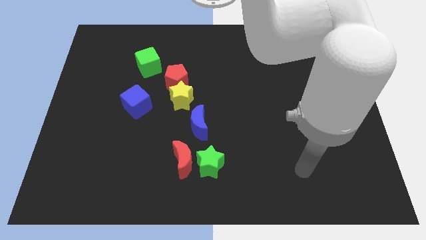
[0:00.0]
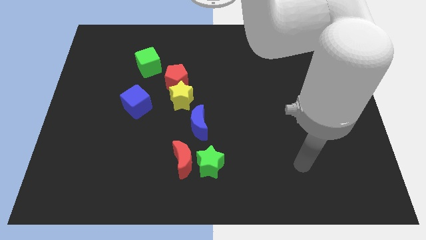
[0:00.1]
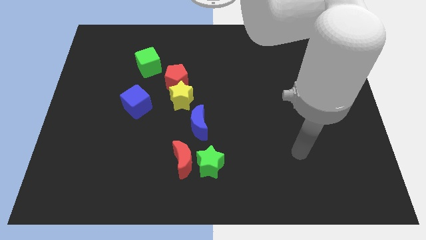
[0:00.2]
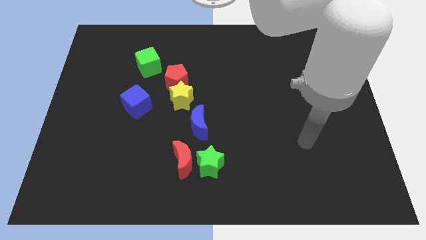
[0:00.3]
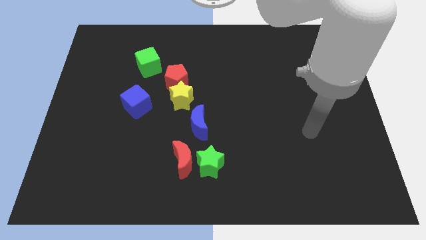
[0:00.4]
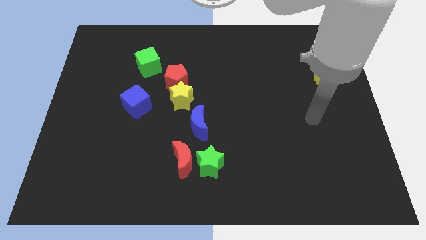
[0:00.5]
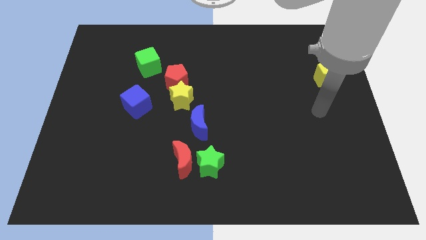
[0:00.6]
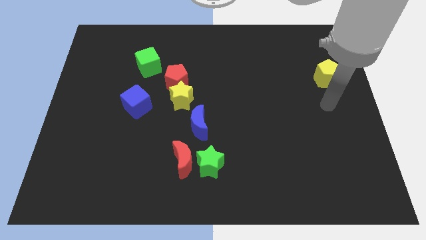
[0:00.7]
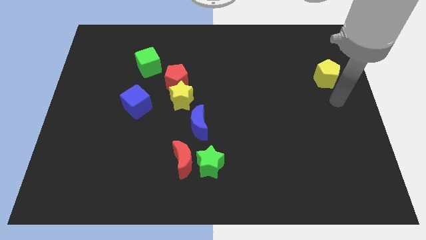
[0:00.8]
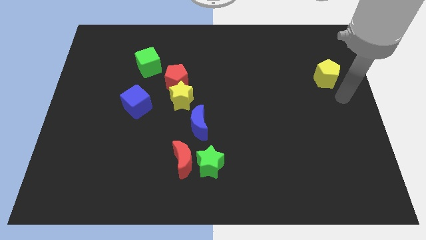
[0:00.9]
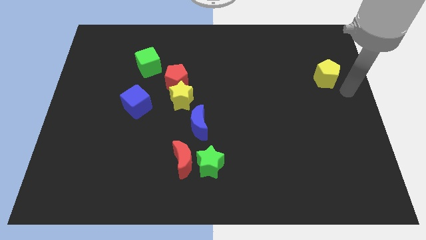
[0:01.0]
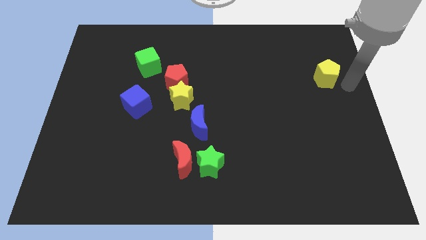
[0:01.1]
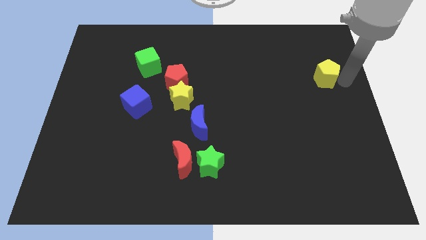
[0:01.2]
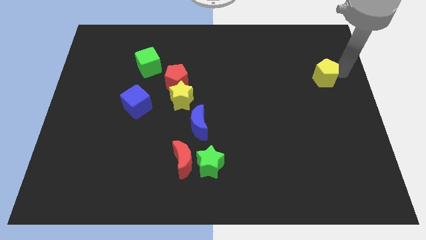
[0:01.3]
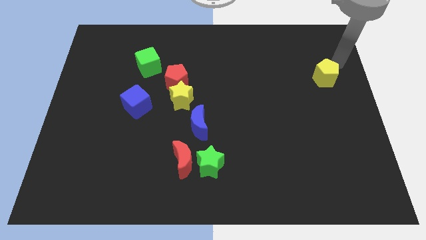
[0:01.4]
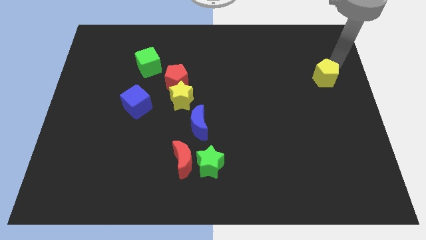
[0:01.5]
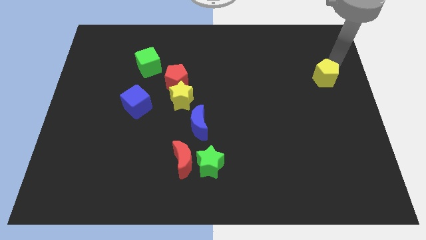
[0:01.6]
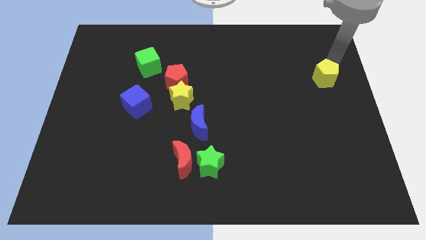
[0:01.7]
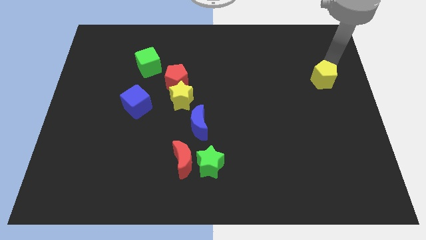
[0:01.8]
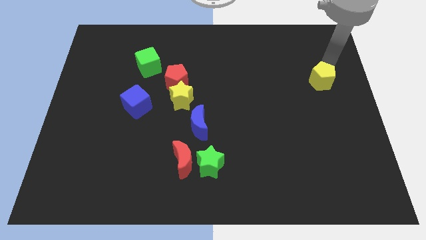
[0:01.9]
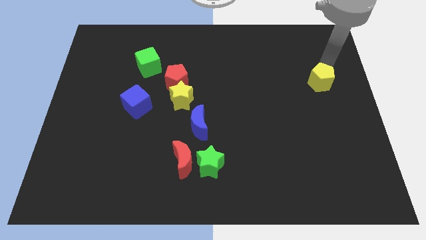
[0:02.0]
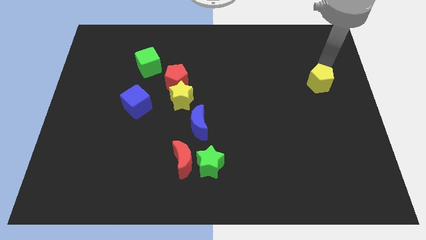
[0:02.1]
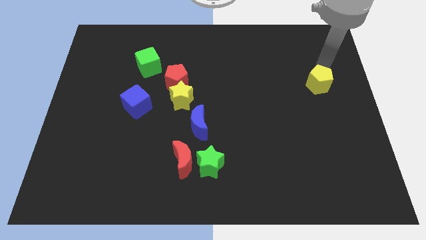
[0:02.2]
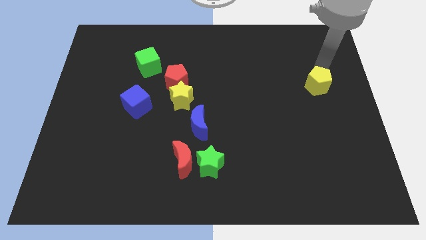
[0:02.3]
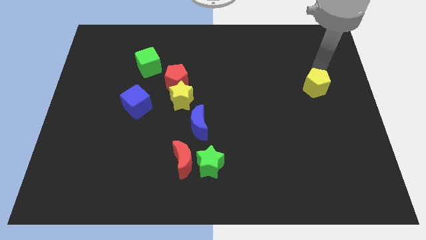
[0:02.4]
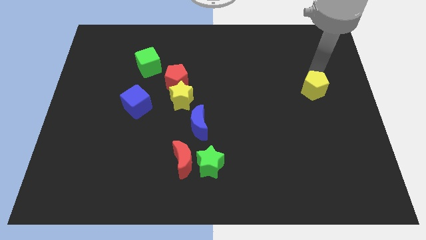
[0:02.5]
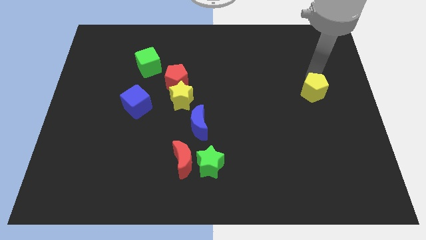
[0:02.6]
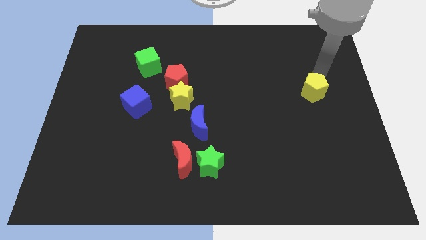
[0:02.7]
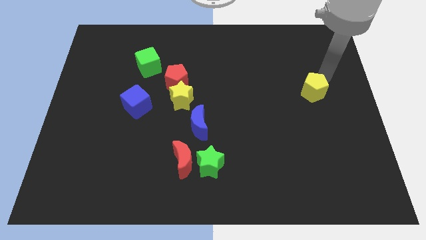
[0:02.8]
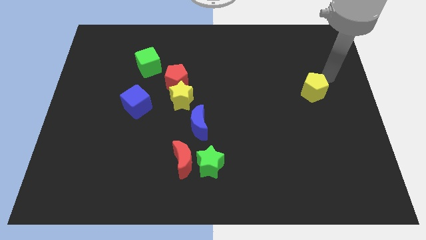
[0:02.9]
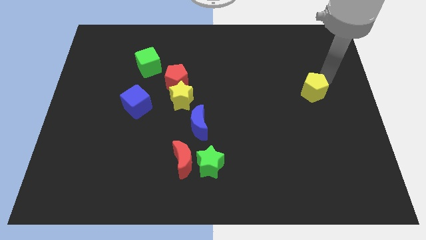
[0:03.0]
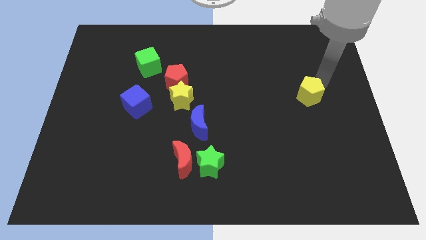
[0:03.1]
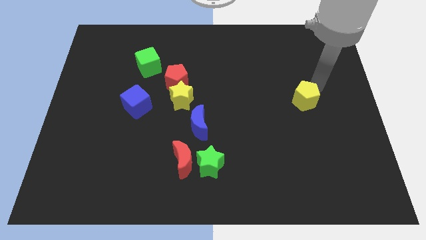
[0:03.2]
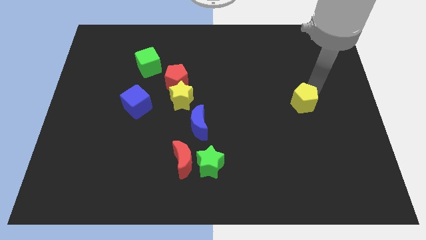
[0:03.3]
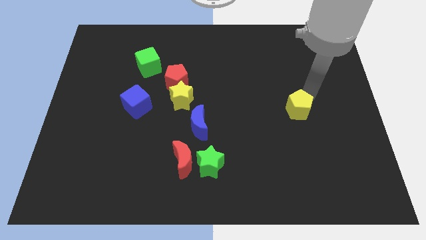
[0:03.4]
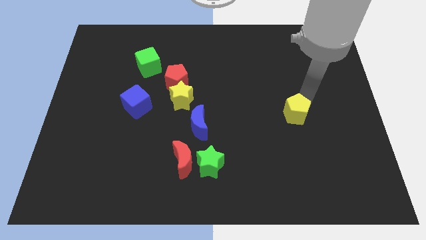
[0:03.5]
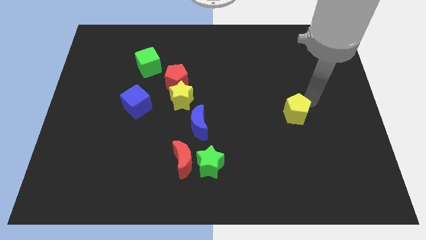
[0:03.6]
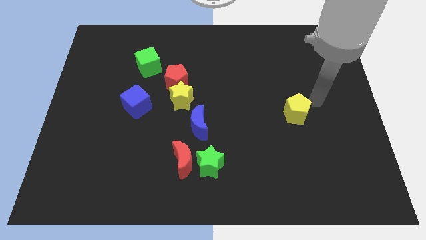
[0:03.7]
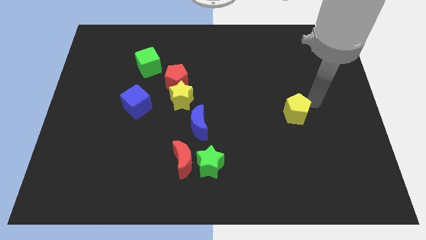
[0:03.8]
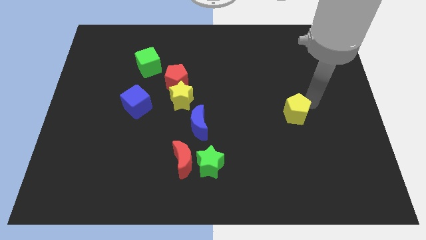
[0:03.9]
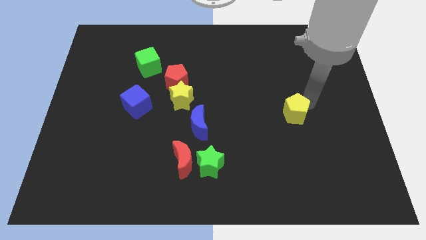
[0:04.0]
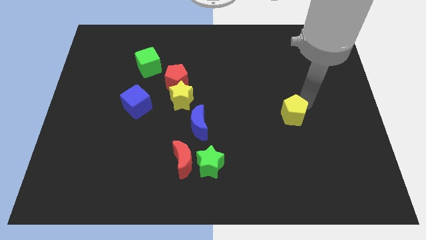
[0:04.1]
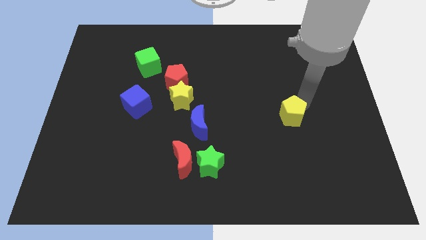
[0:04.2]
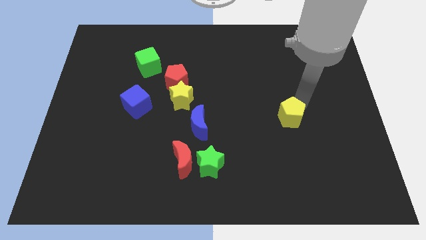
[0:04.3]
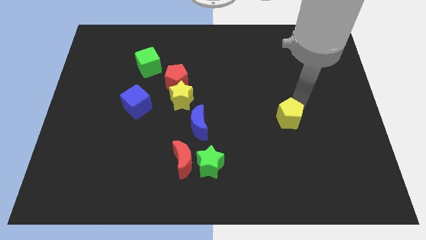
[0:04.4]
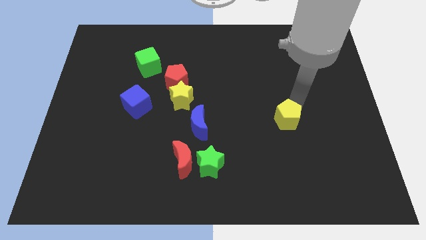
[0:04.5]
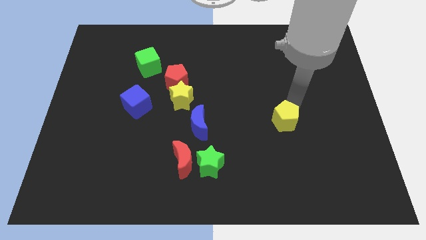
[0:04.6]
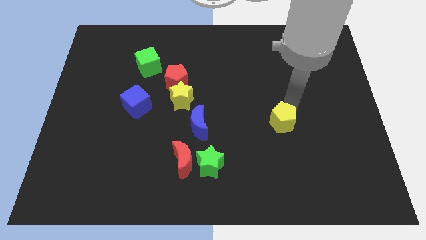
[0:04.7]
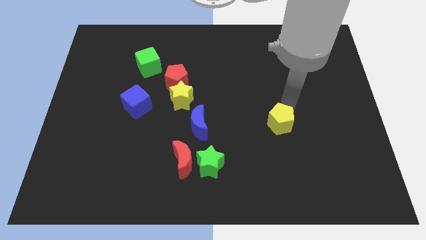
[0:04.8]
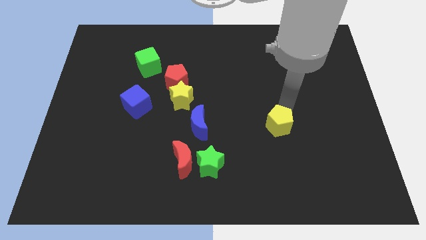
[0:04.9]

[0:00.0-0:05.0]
move the yellow pentagon downwards and then to the left

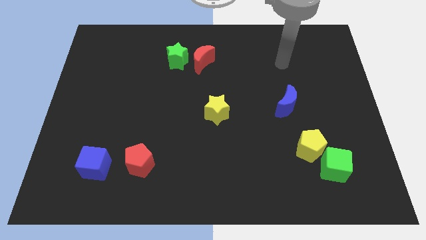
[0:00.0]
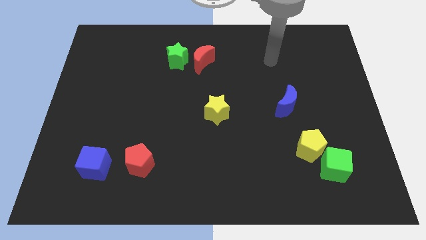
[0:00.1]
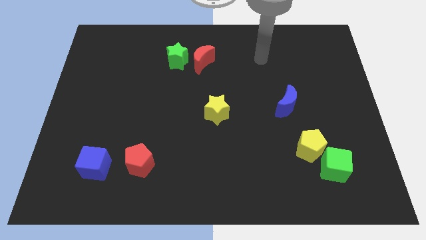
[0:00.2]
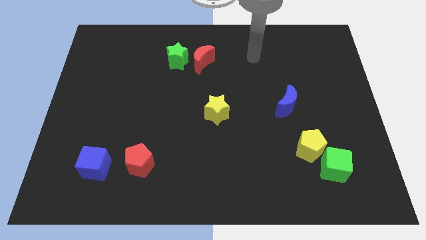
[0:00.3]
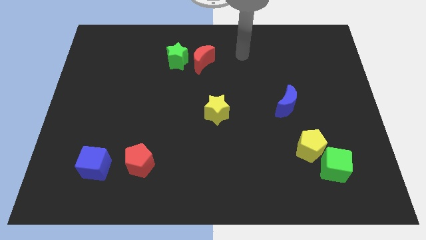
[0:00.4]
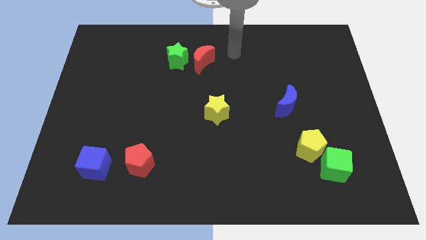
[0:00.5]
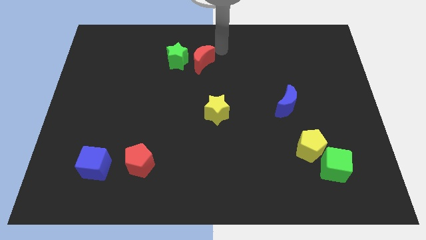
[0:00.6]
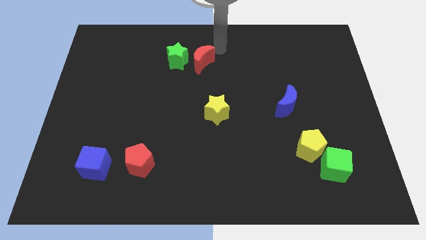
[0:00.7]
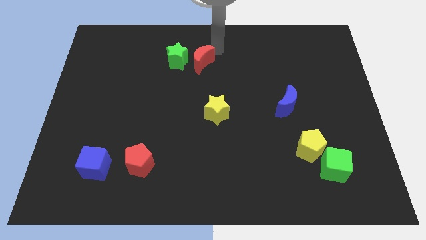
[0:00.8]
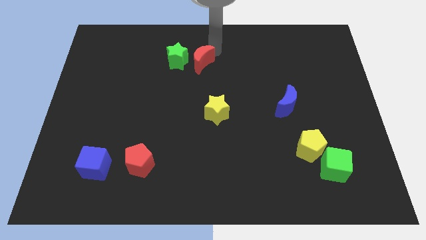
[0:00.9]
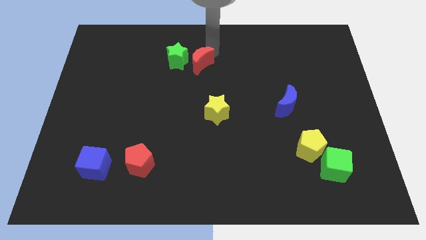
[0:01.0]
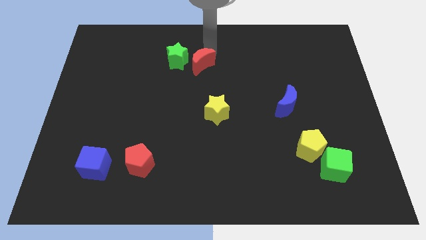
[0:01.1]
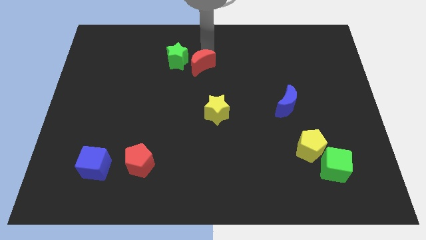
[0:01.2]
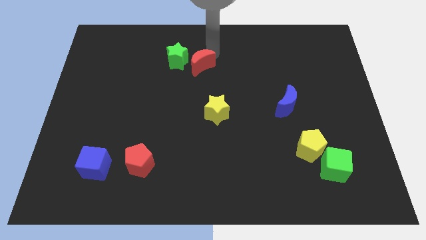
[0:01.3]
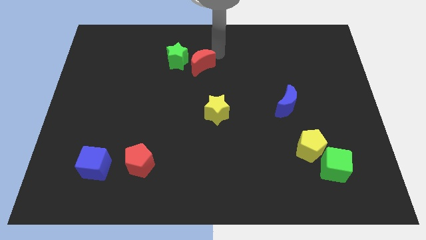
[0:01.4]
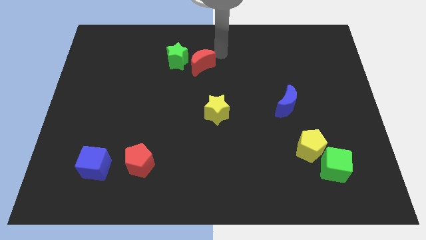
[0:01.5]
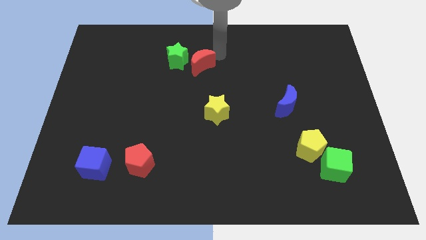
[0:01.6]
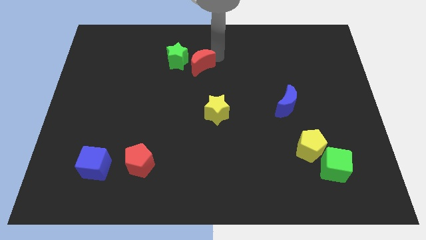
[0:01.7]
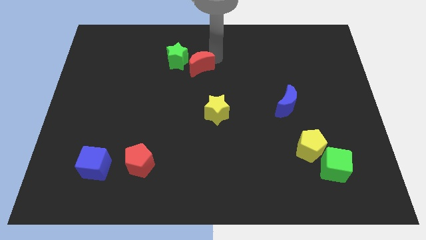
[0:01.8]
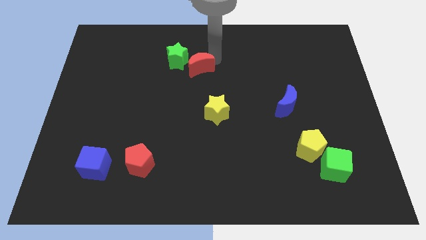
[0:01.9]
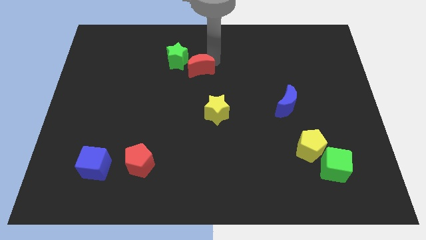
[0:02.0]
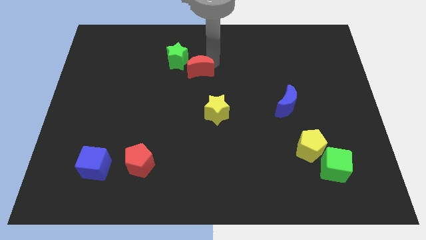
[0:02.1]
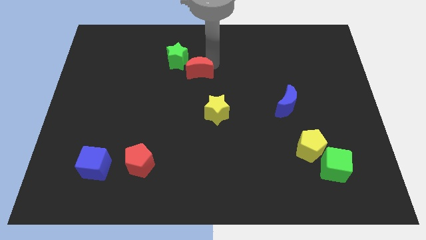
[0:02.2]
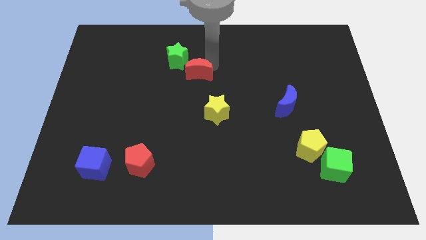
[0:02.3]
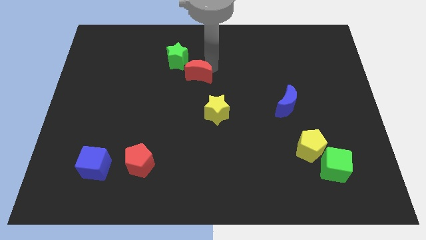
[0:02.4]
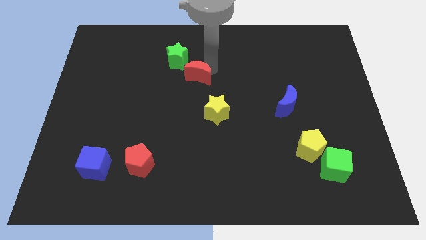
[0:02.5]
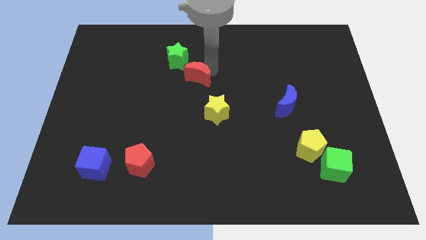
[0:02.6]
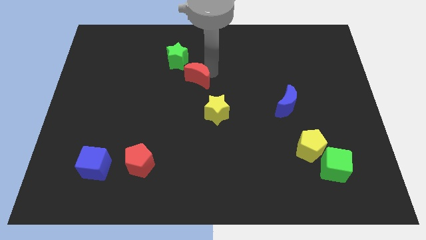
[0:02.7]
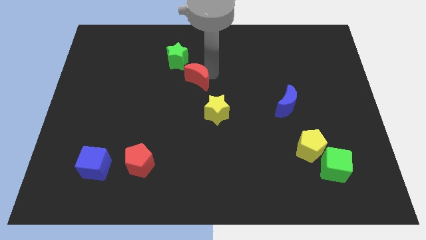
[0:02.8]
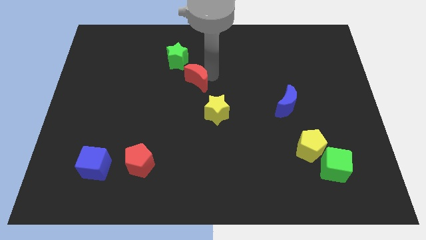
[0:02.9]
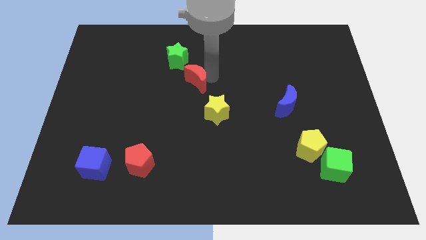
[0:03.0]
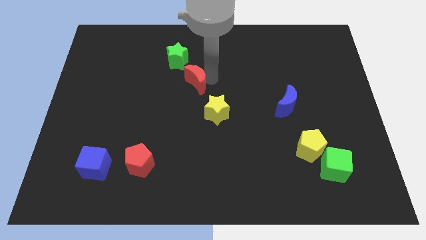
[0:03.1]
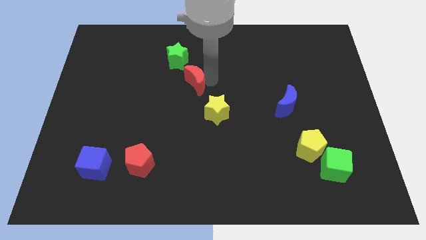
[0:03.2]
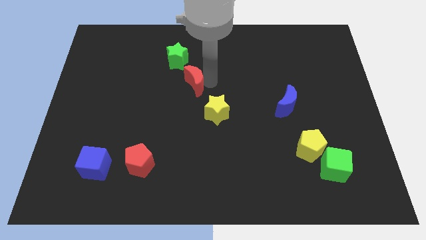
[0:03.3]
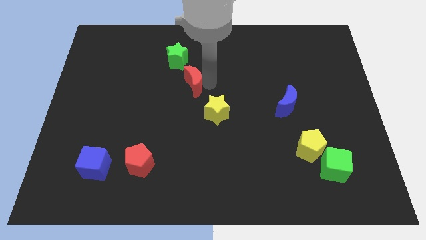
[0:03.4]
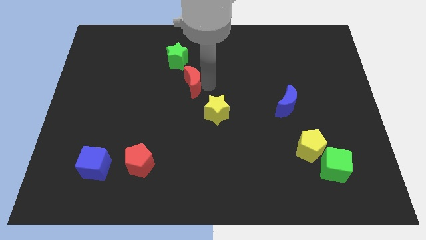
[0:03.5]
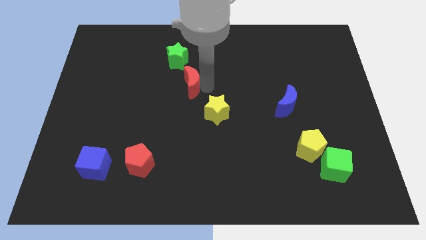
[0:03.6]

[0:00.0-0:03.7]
slide the red moon diagonally down and left a bit
